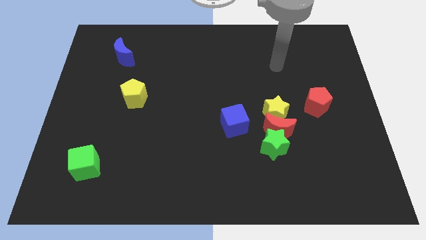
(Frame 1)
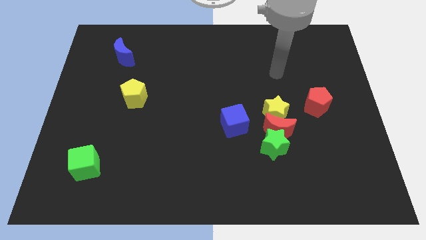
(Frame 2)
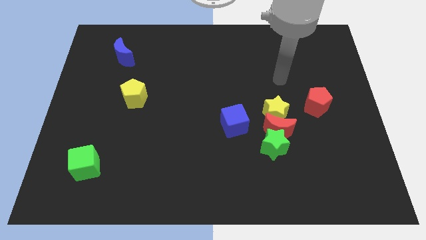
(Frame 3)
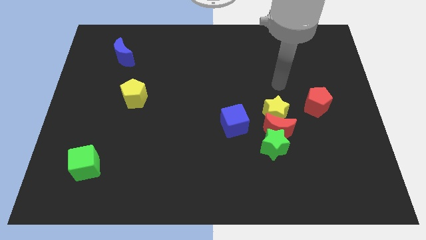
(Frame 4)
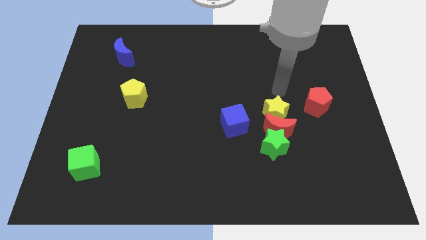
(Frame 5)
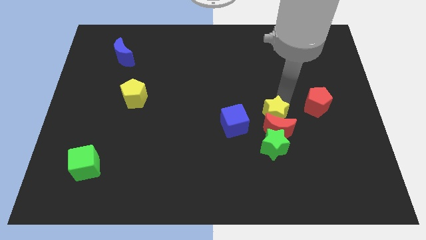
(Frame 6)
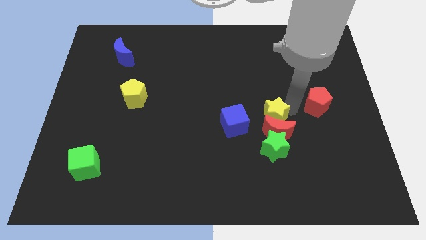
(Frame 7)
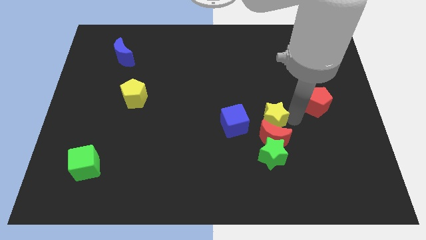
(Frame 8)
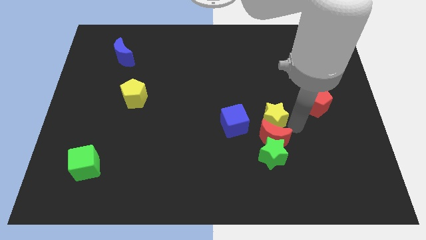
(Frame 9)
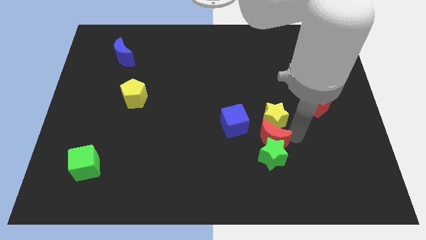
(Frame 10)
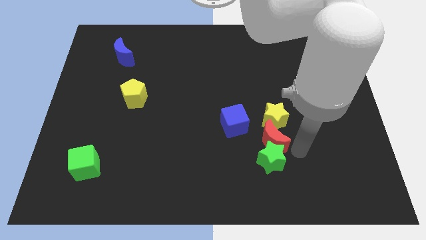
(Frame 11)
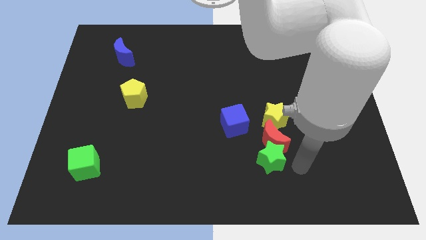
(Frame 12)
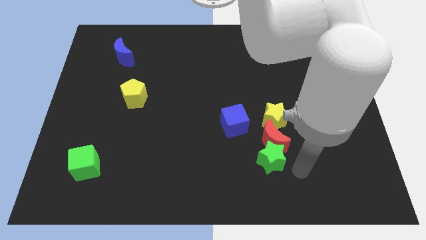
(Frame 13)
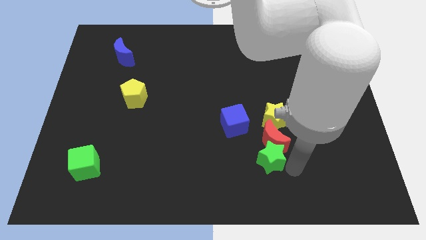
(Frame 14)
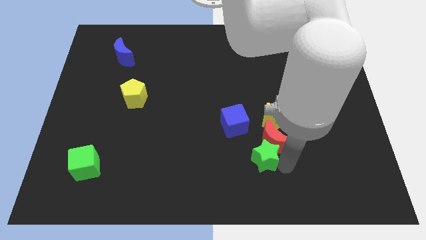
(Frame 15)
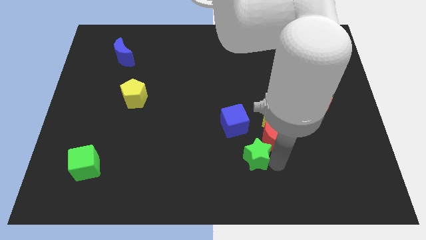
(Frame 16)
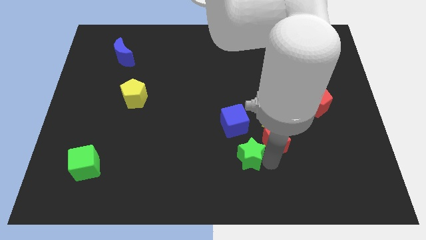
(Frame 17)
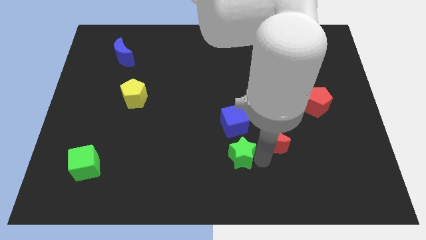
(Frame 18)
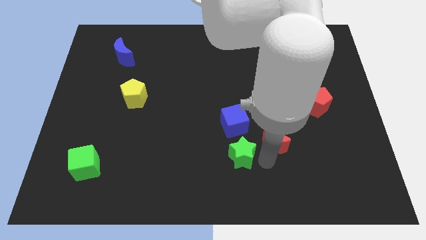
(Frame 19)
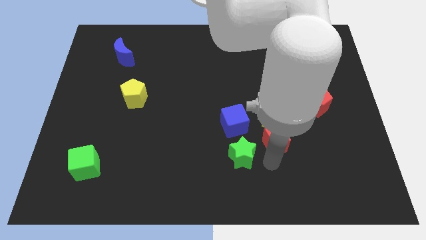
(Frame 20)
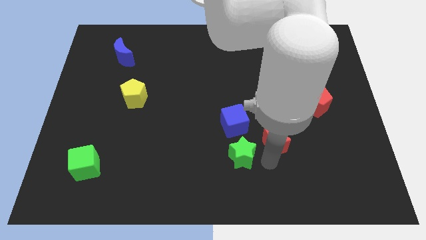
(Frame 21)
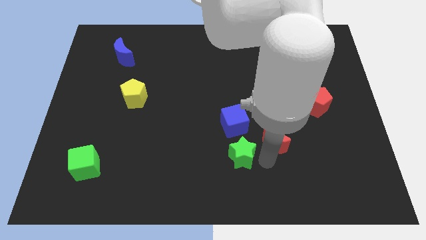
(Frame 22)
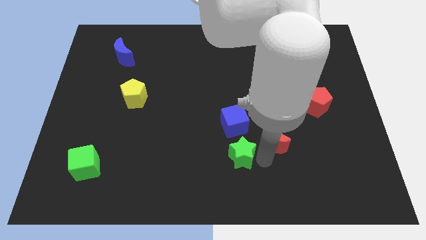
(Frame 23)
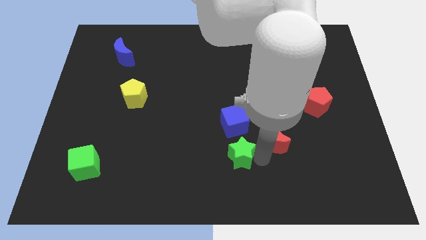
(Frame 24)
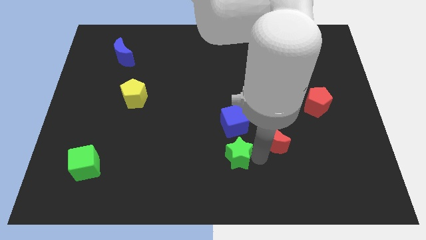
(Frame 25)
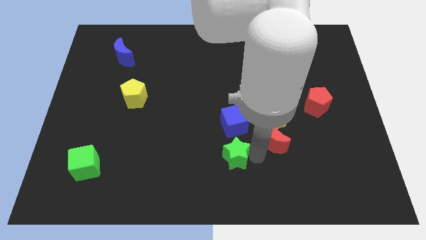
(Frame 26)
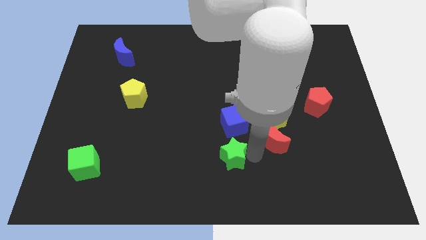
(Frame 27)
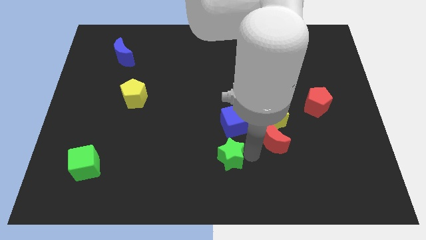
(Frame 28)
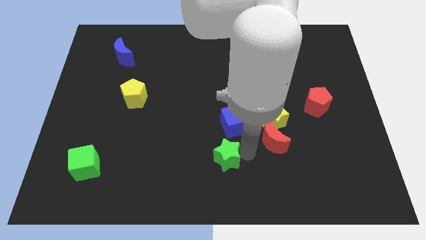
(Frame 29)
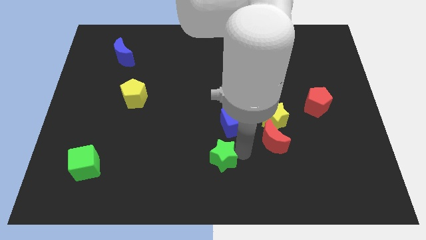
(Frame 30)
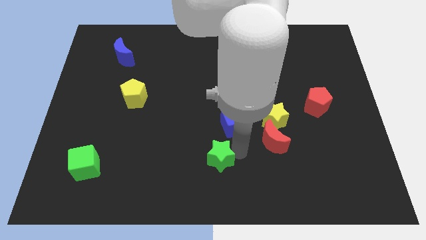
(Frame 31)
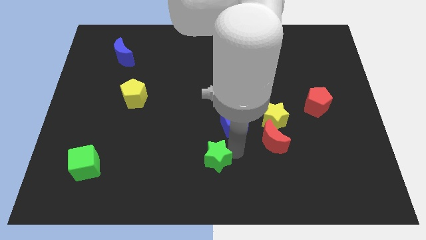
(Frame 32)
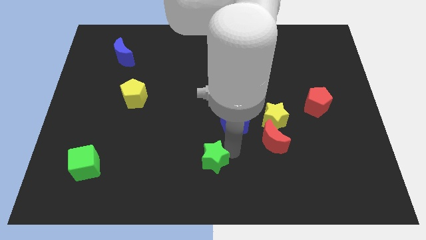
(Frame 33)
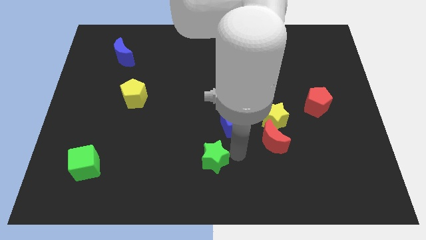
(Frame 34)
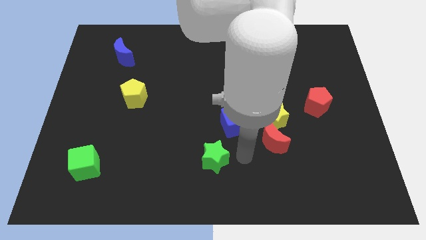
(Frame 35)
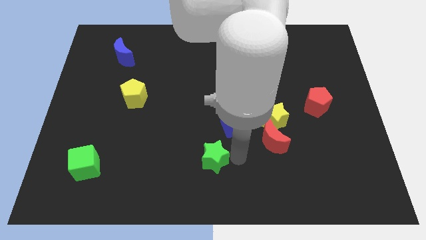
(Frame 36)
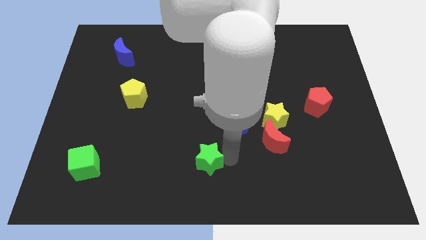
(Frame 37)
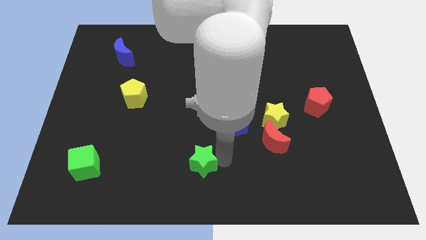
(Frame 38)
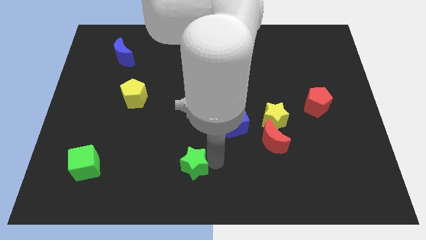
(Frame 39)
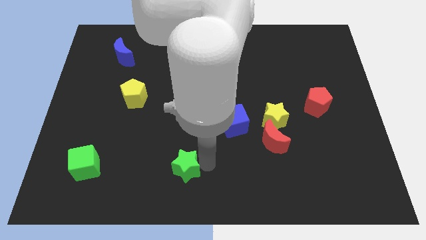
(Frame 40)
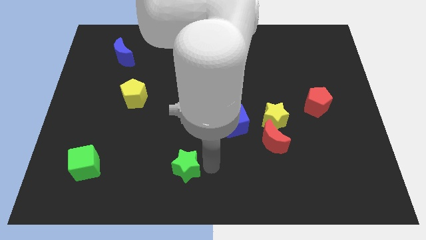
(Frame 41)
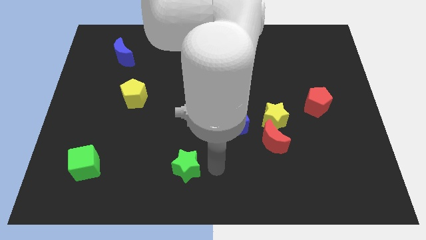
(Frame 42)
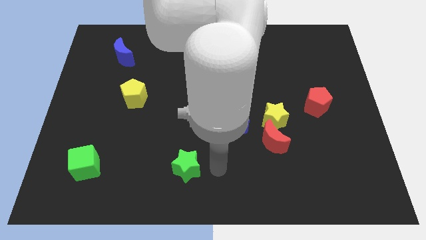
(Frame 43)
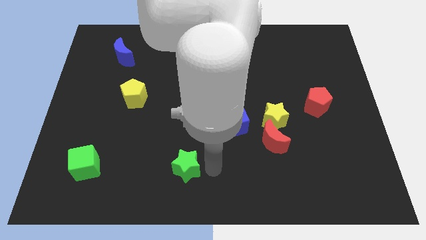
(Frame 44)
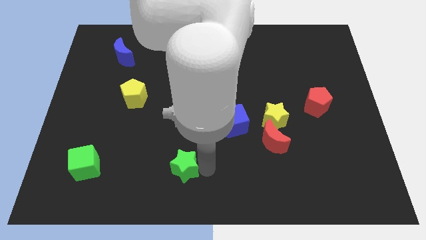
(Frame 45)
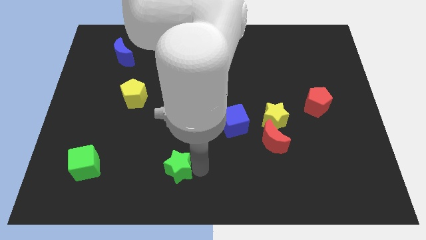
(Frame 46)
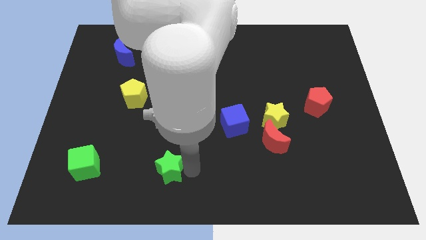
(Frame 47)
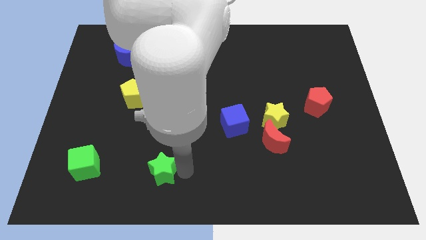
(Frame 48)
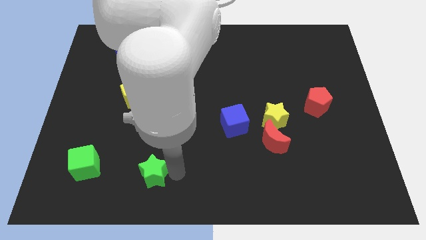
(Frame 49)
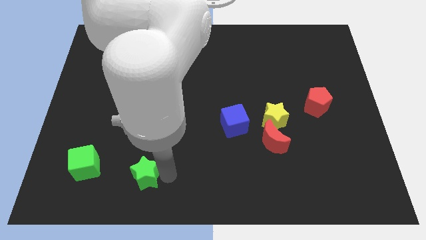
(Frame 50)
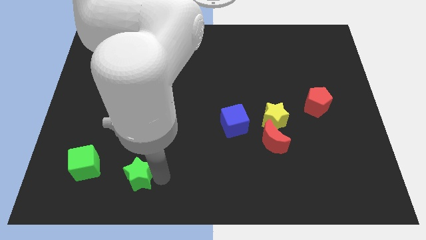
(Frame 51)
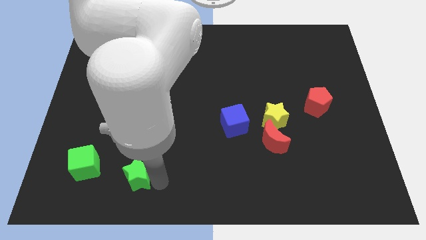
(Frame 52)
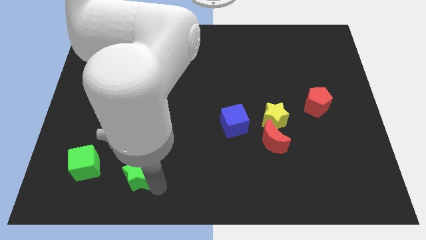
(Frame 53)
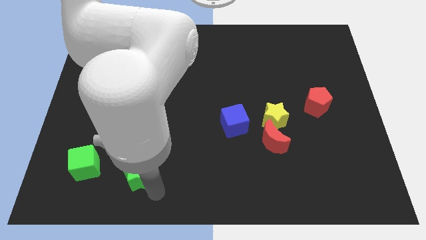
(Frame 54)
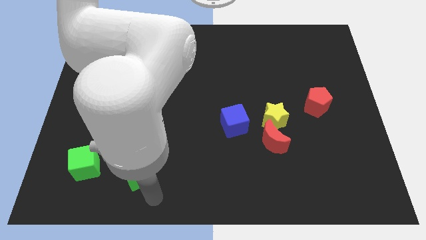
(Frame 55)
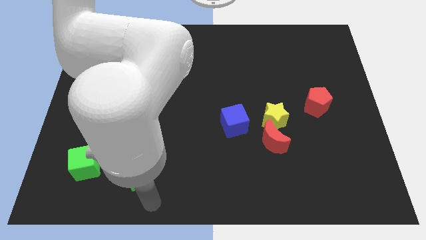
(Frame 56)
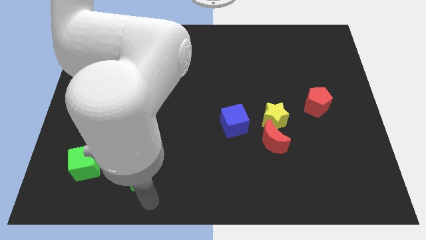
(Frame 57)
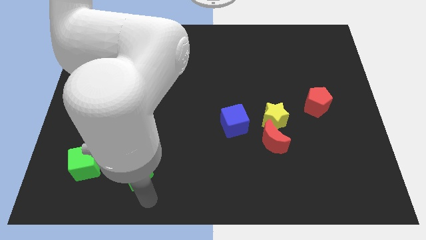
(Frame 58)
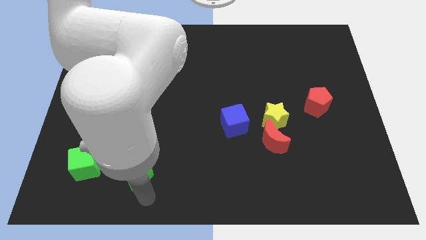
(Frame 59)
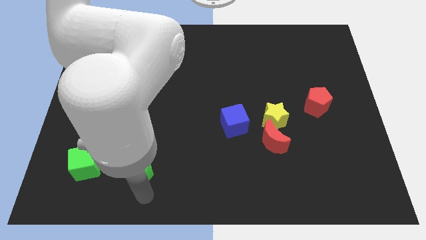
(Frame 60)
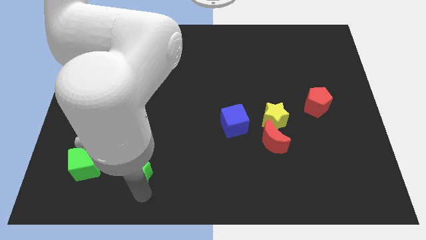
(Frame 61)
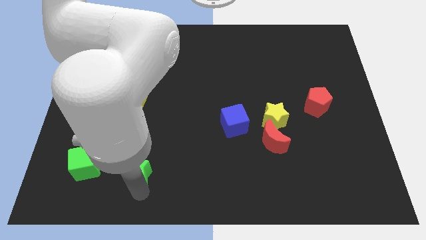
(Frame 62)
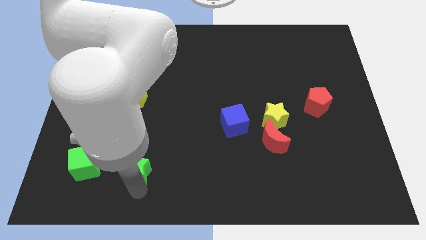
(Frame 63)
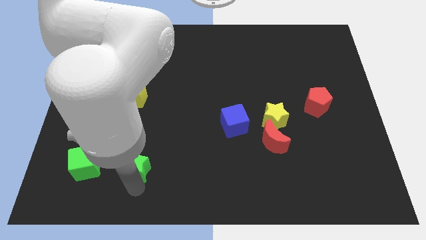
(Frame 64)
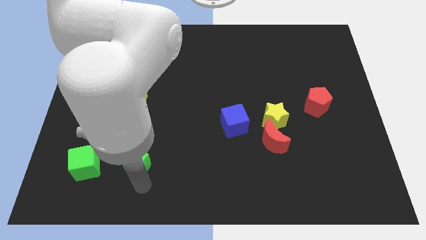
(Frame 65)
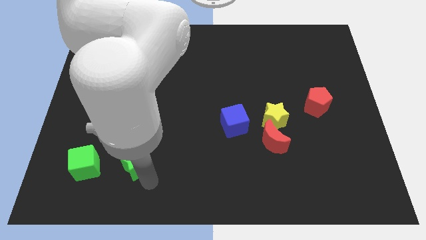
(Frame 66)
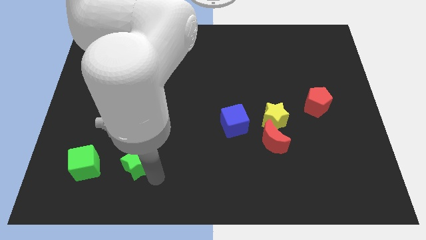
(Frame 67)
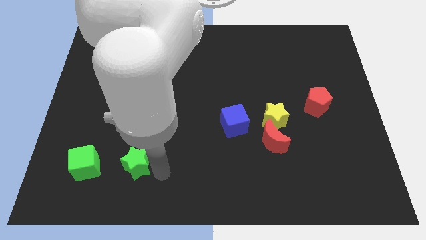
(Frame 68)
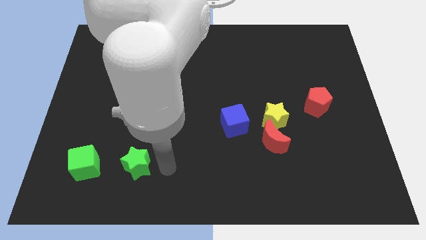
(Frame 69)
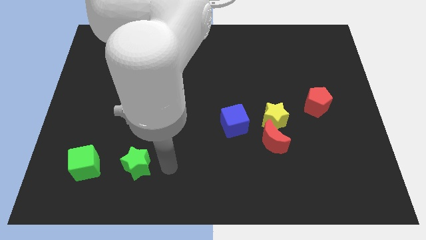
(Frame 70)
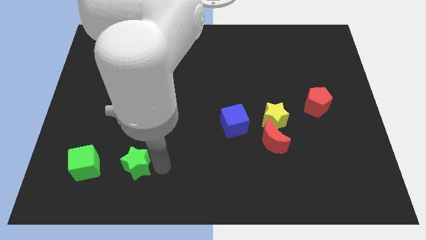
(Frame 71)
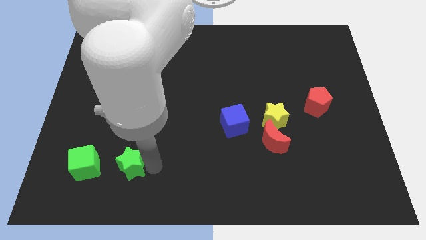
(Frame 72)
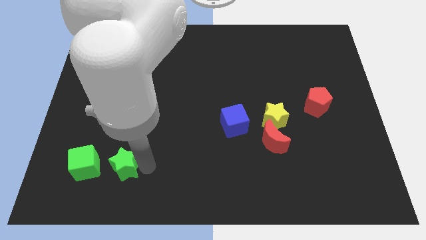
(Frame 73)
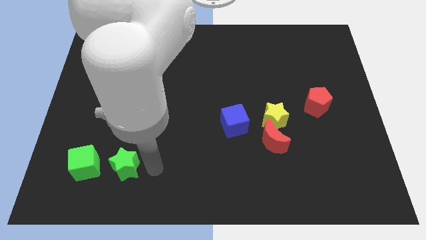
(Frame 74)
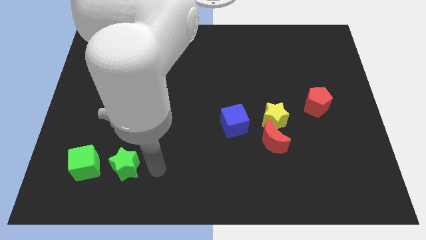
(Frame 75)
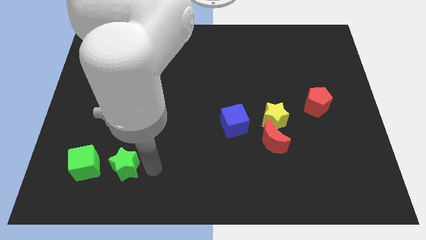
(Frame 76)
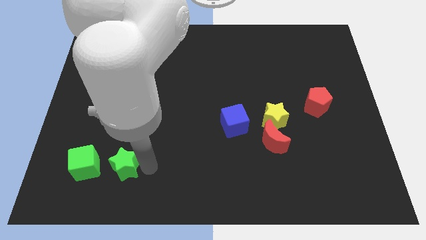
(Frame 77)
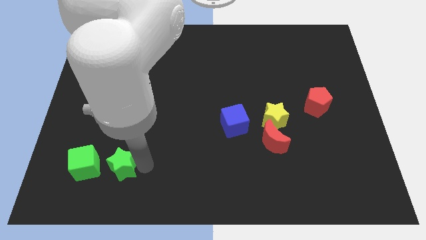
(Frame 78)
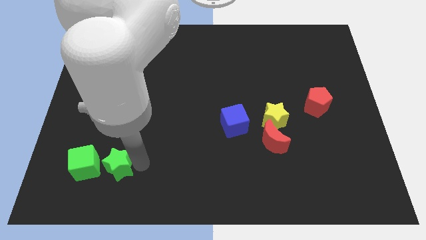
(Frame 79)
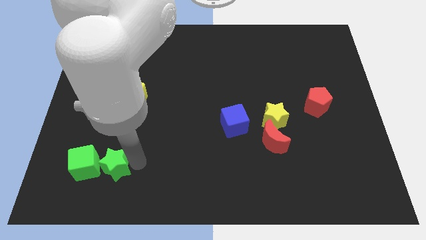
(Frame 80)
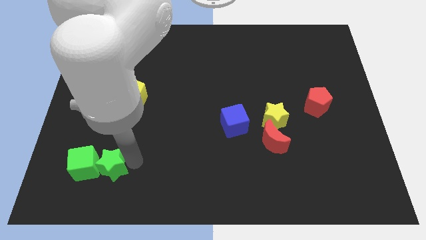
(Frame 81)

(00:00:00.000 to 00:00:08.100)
move the green star to the green cube
